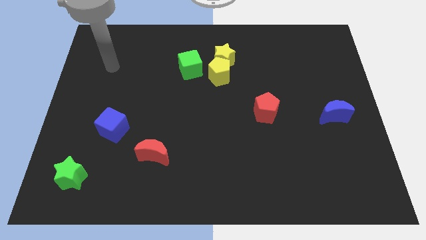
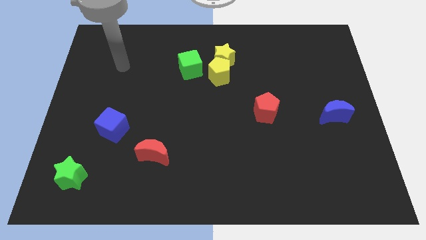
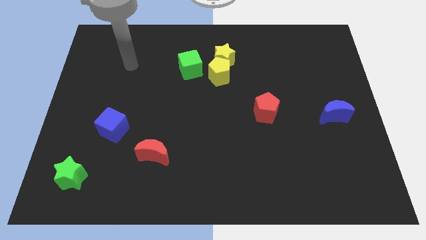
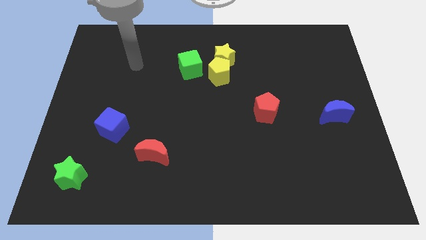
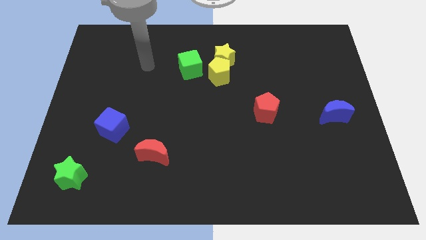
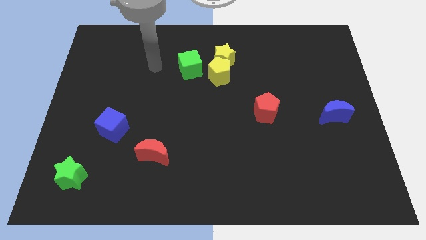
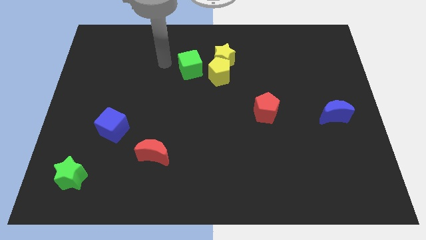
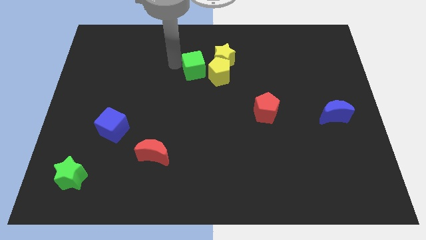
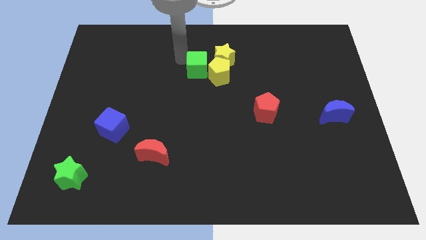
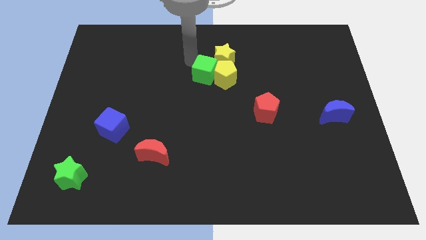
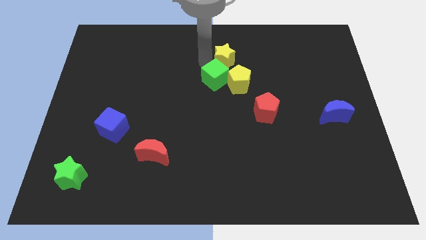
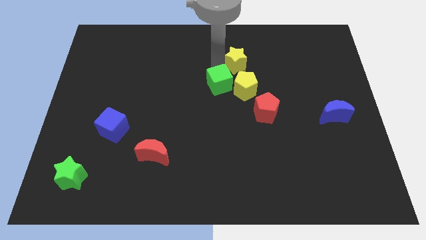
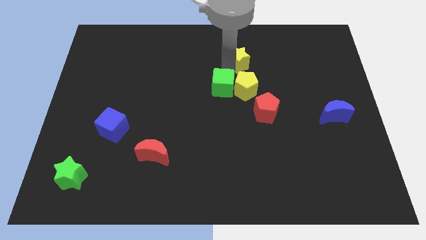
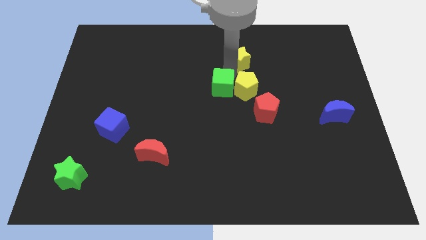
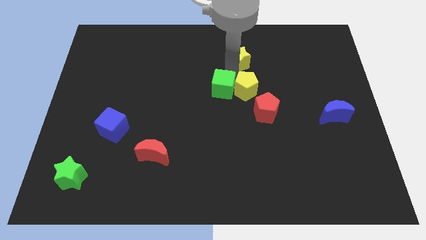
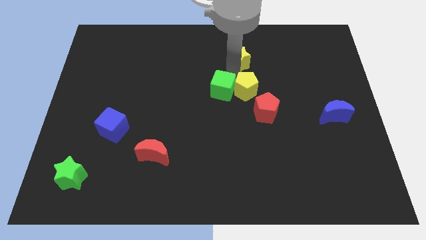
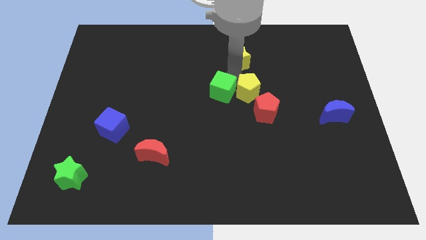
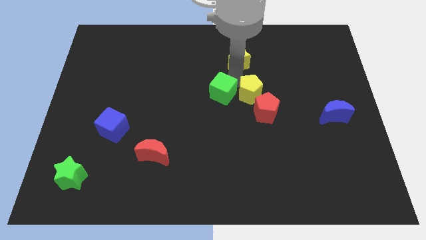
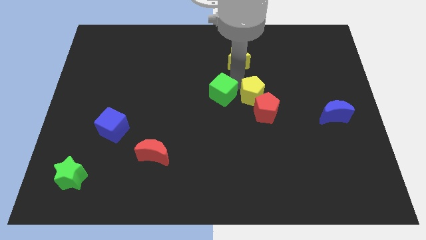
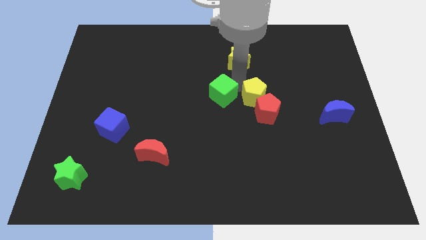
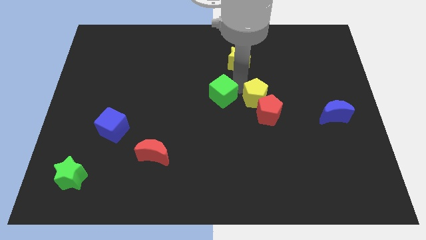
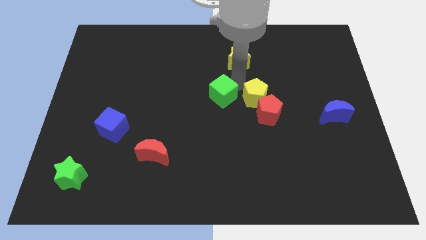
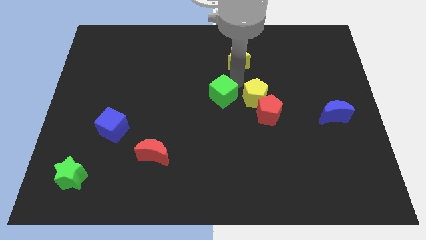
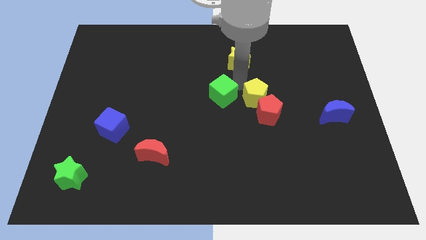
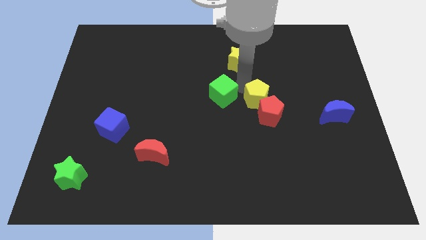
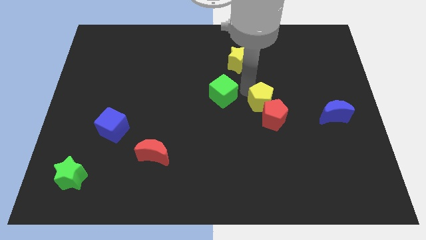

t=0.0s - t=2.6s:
pull the yellow pentagon apart from the yellow star and green cube

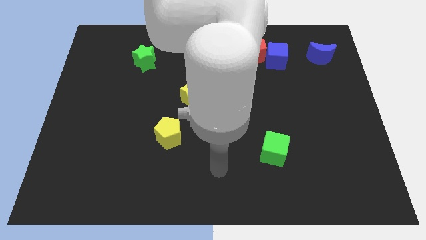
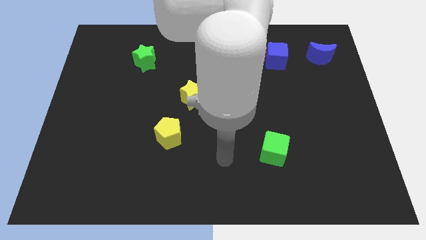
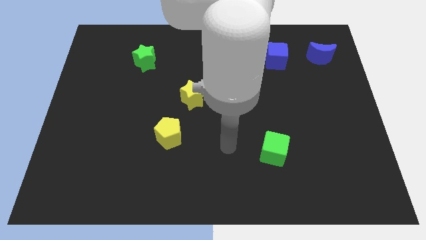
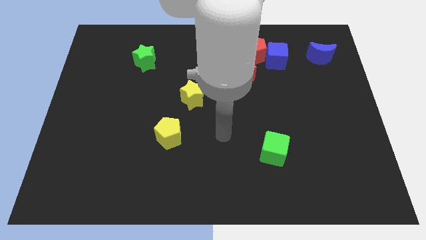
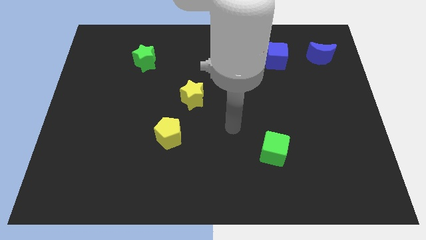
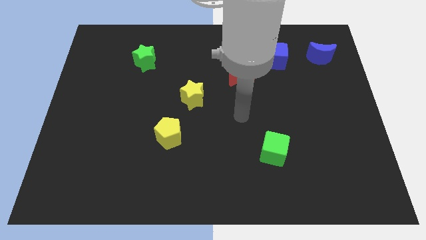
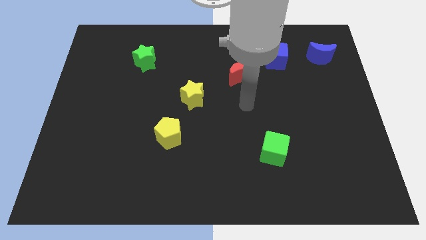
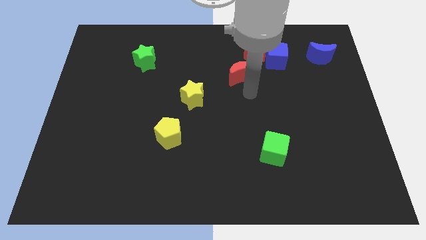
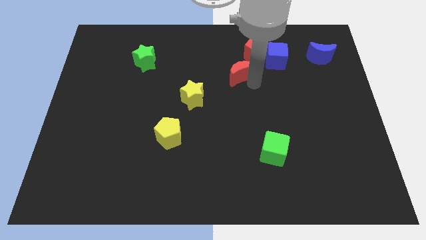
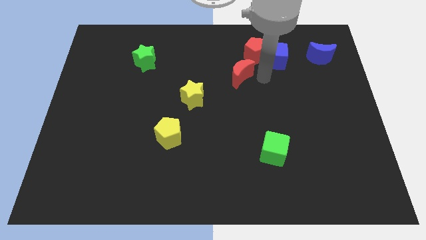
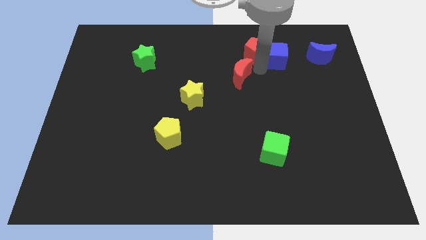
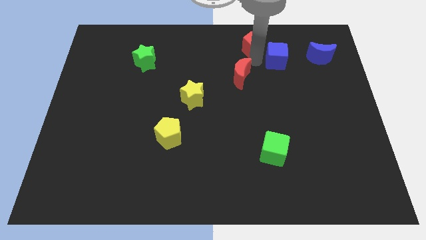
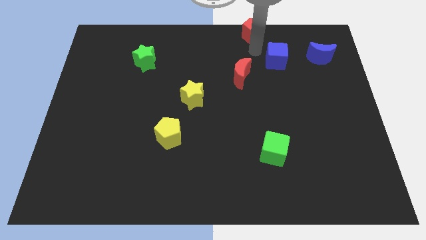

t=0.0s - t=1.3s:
pull the blue cube apart from the red pentagon

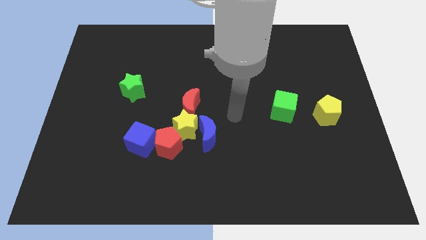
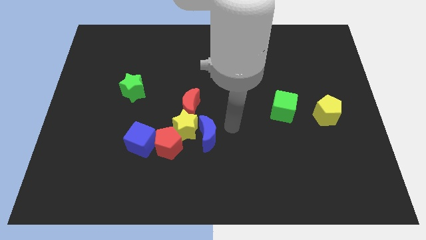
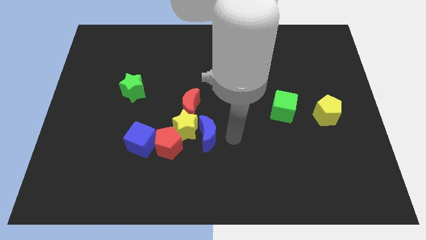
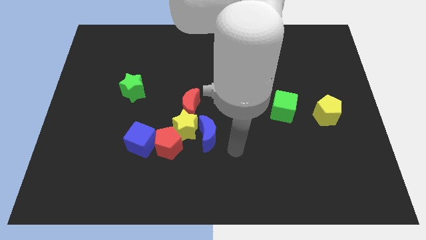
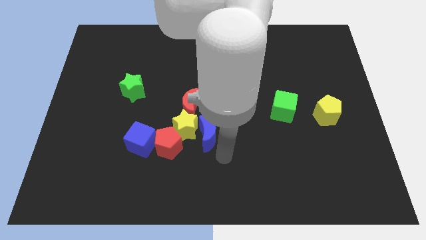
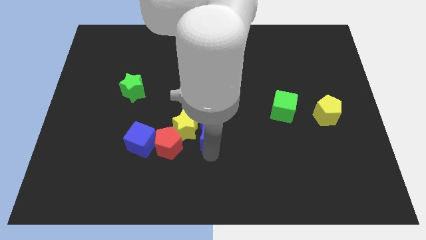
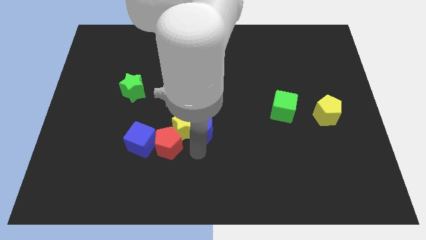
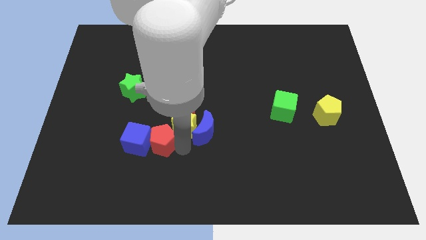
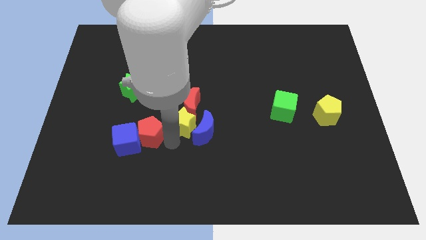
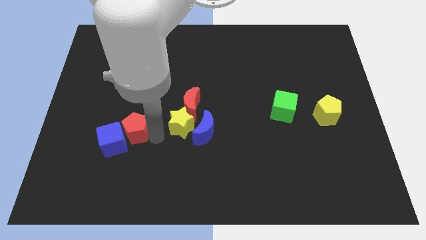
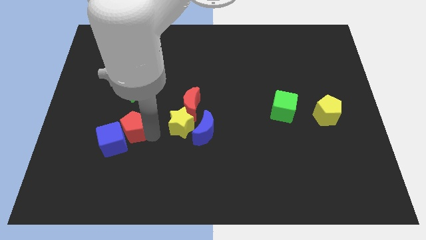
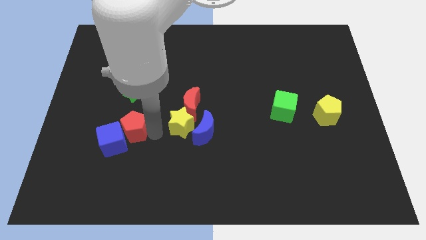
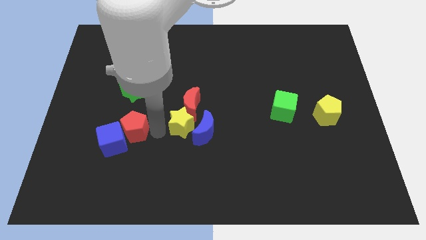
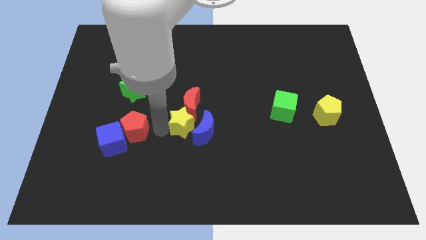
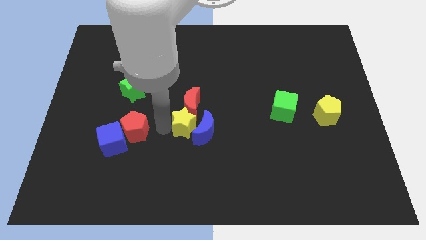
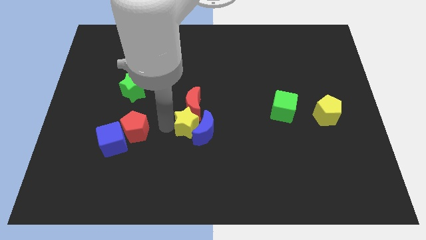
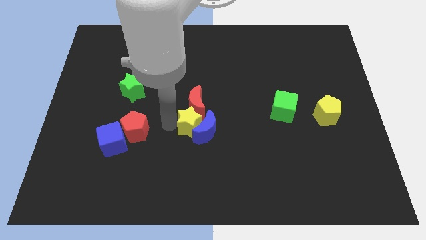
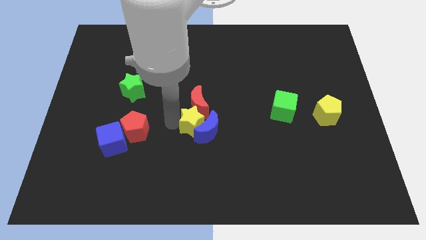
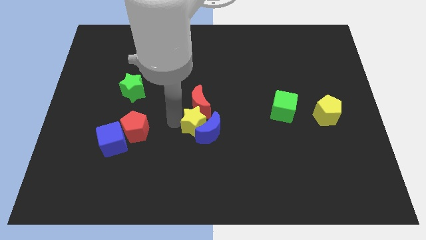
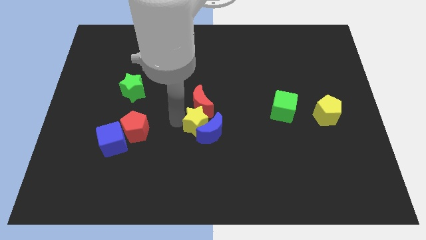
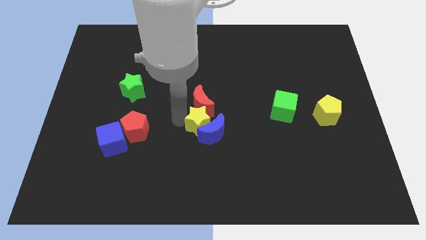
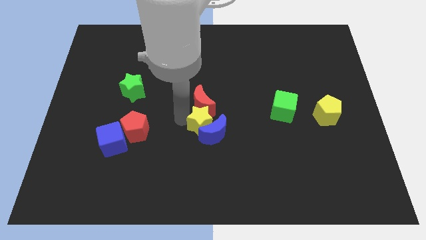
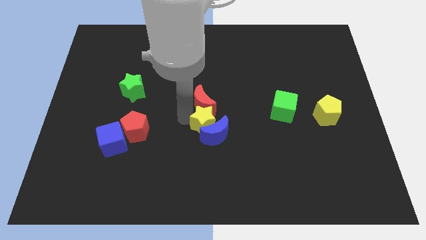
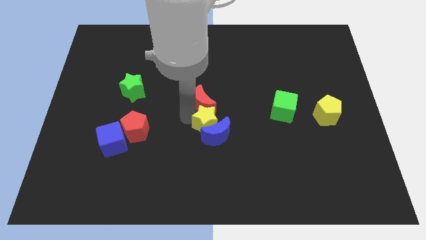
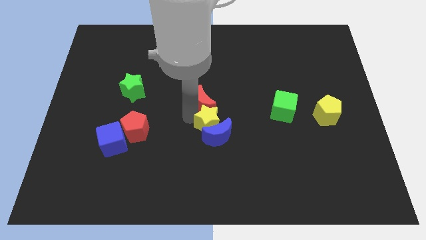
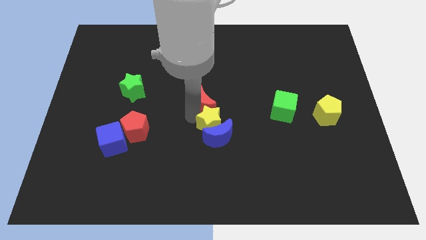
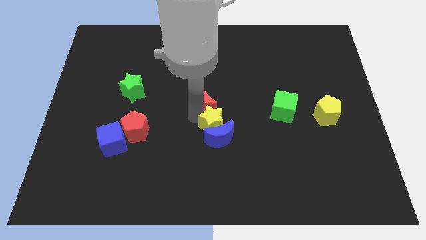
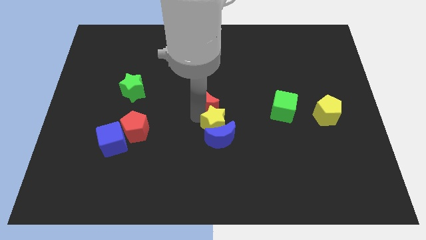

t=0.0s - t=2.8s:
move the yellow star away from the clump

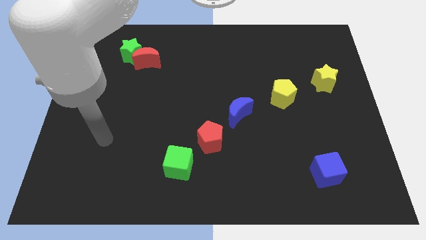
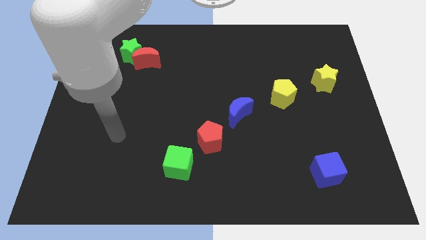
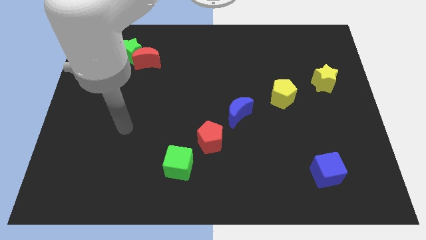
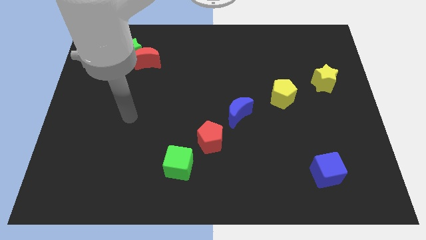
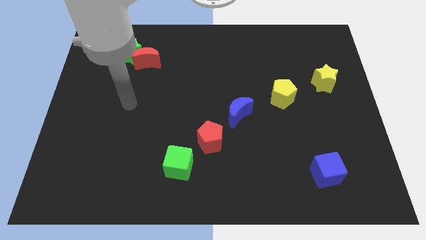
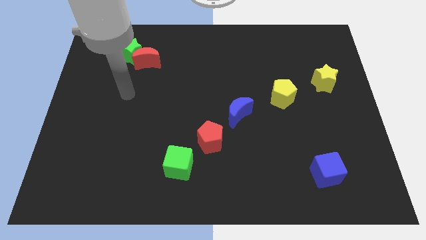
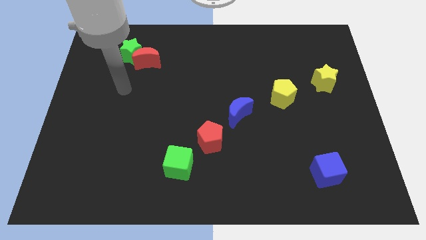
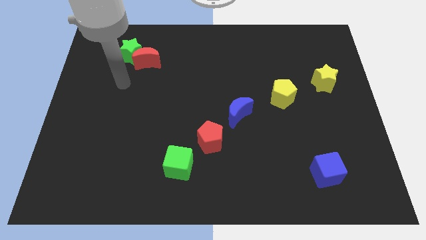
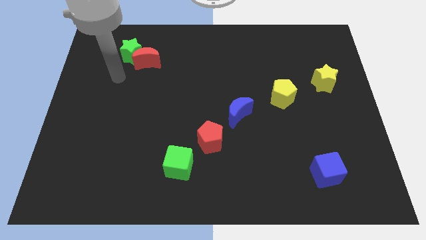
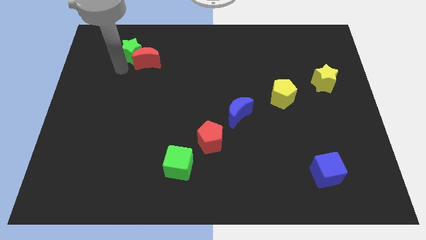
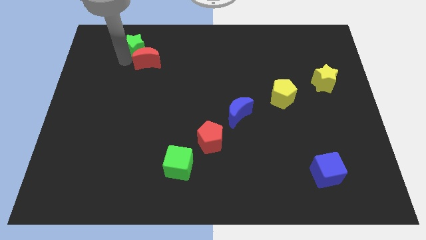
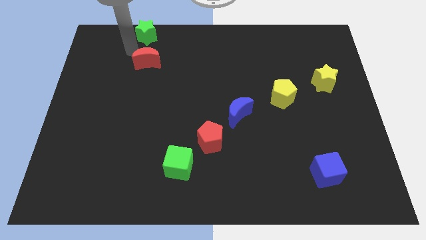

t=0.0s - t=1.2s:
pull the red moon apart from the green star

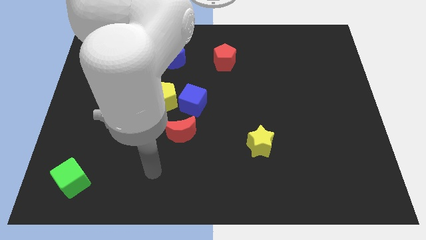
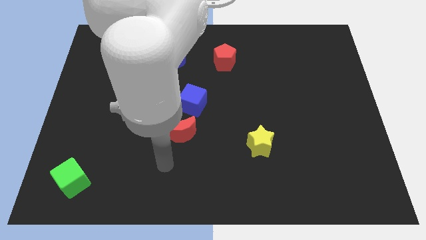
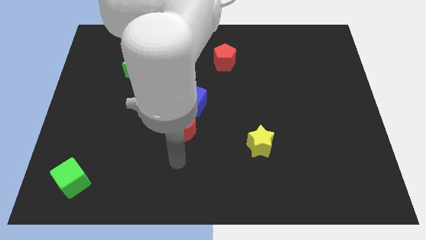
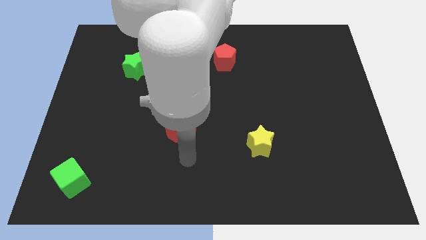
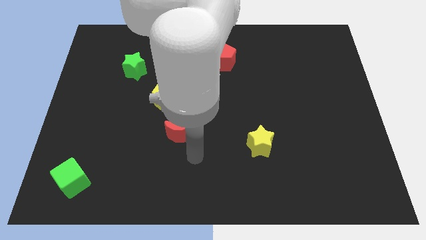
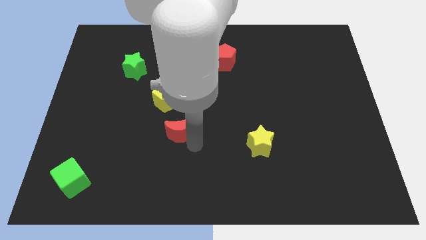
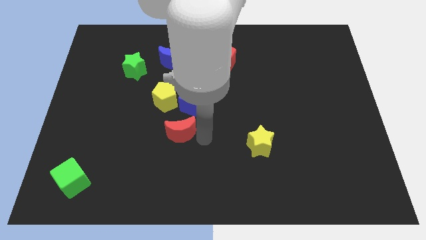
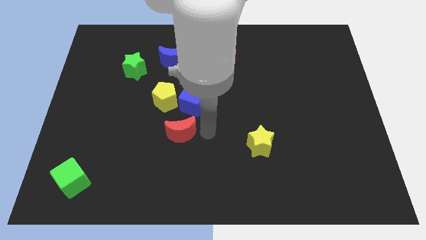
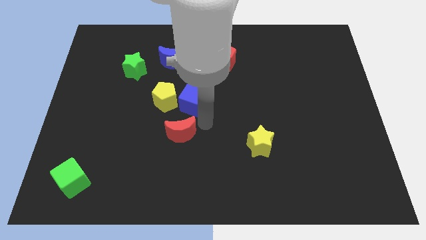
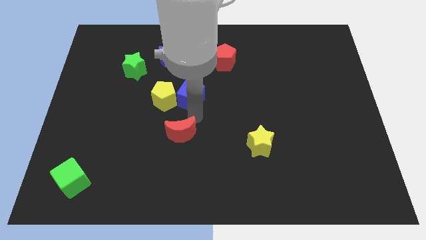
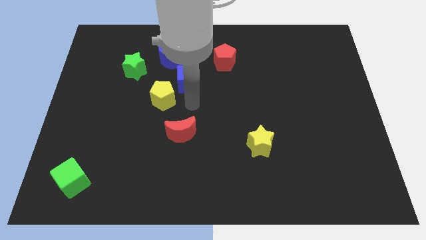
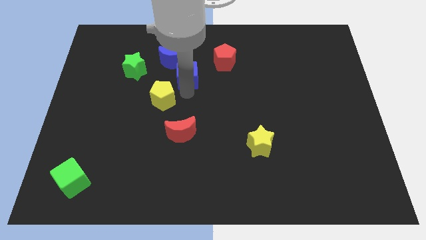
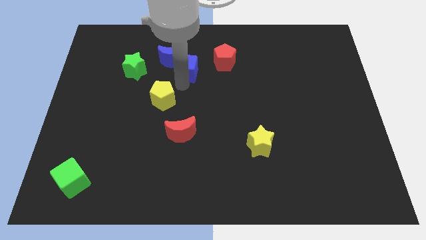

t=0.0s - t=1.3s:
pull the yellow pentagon apart from the blue cube
